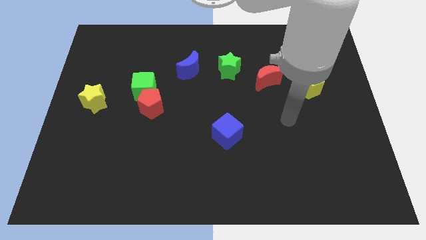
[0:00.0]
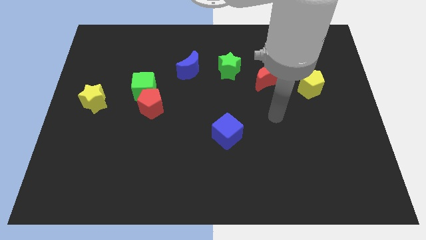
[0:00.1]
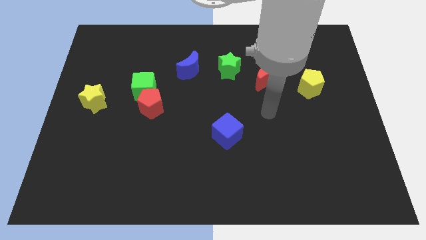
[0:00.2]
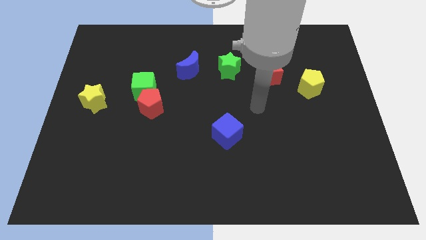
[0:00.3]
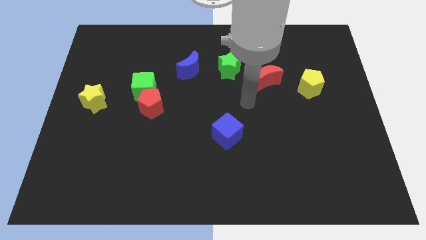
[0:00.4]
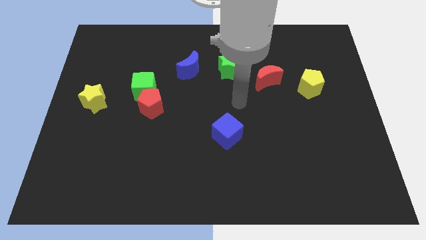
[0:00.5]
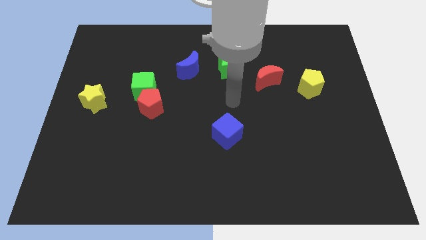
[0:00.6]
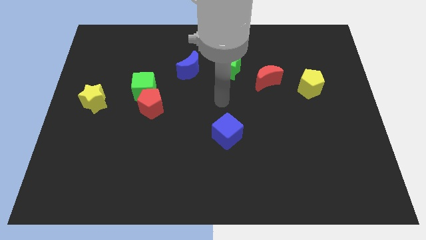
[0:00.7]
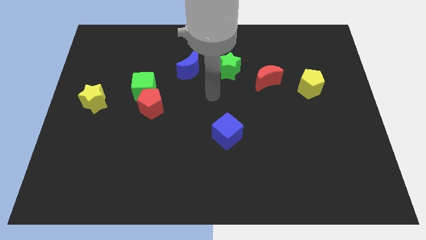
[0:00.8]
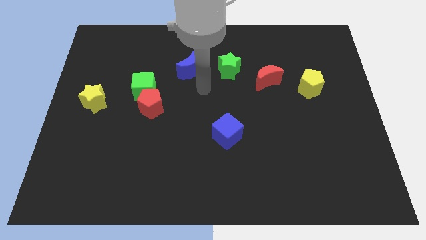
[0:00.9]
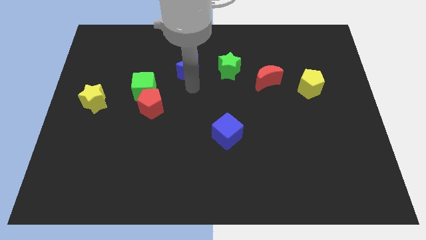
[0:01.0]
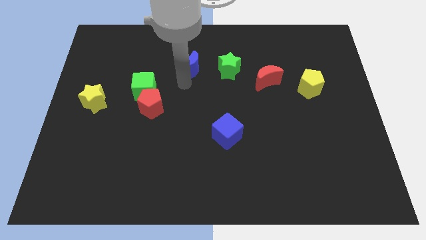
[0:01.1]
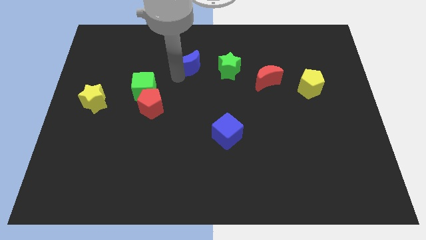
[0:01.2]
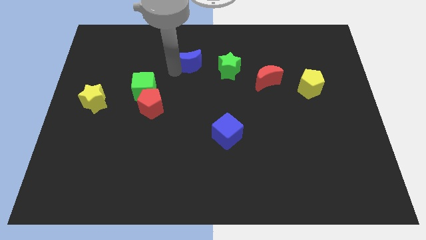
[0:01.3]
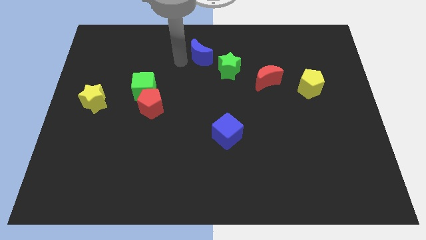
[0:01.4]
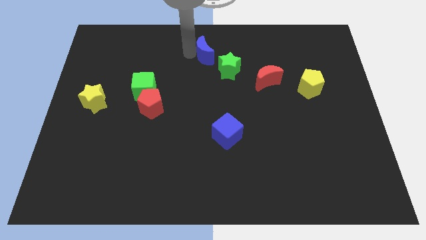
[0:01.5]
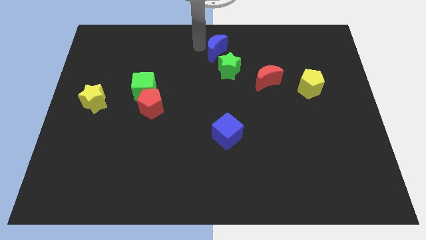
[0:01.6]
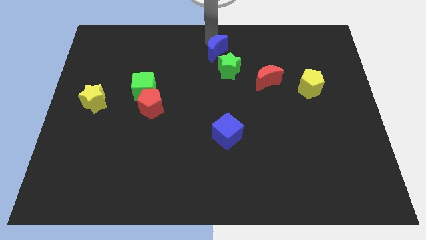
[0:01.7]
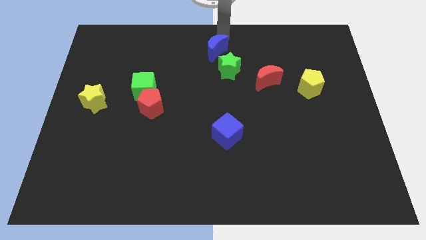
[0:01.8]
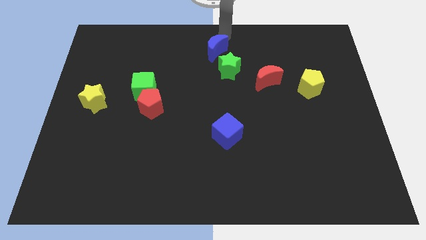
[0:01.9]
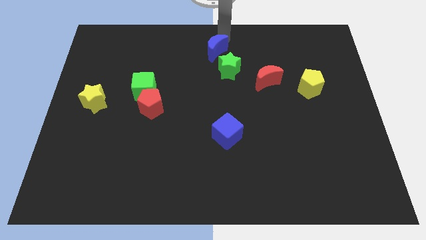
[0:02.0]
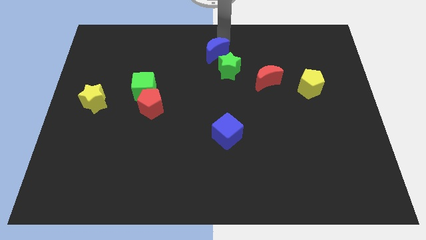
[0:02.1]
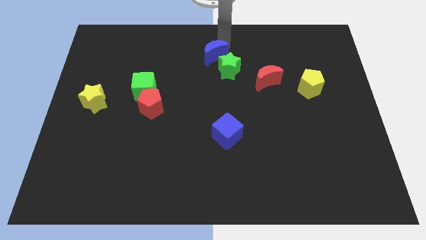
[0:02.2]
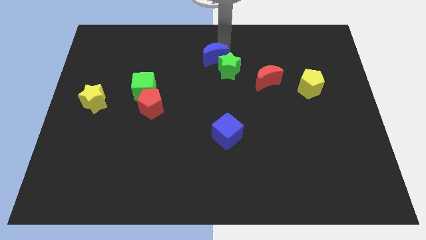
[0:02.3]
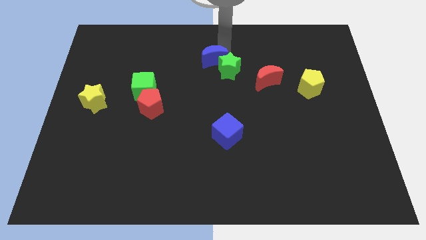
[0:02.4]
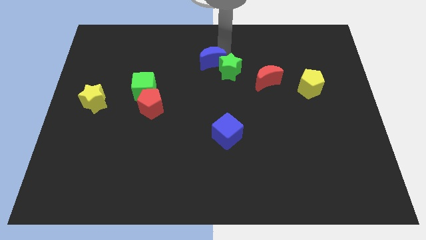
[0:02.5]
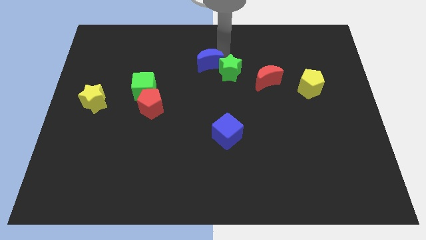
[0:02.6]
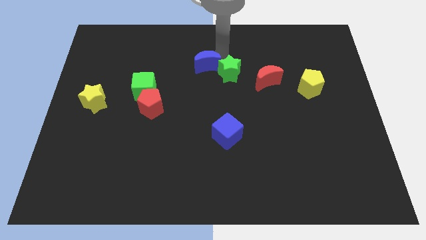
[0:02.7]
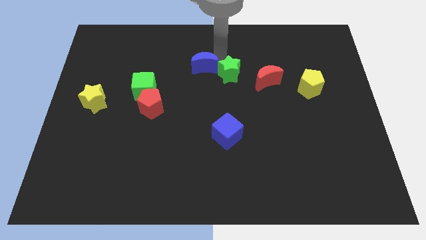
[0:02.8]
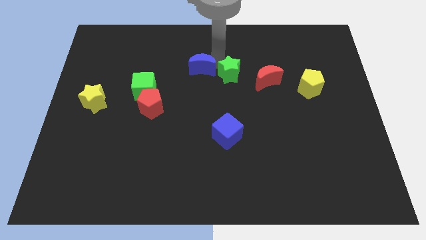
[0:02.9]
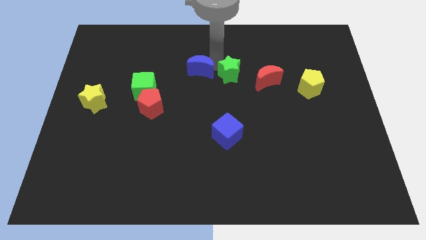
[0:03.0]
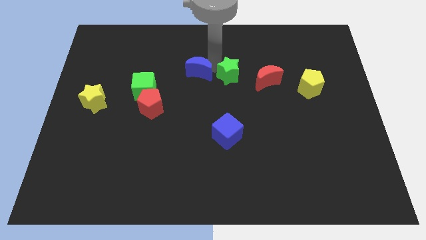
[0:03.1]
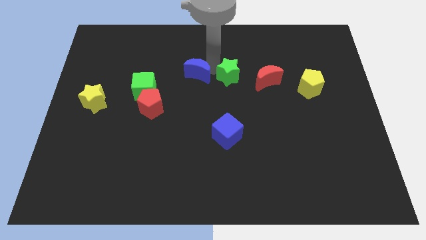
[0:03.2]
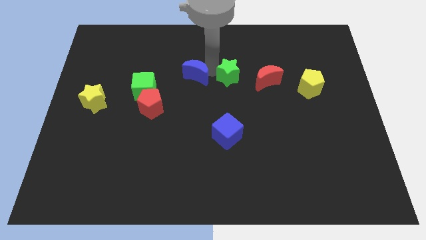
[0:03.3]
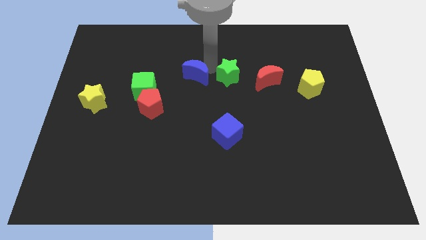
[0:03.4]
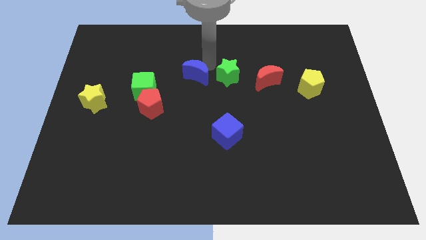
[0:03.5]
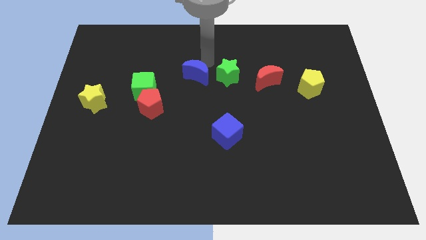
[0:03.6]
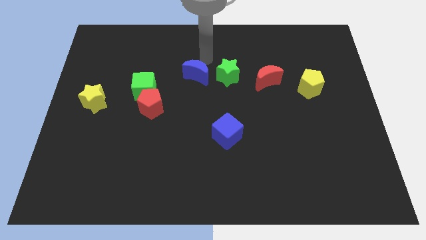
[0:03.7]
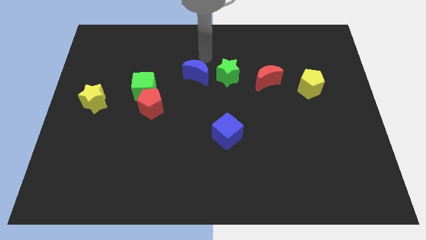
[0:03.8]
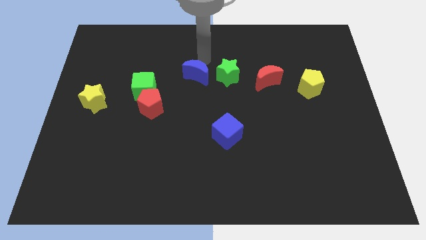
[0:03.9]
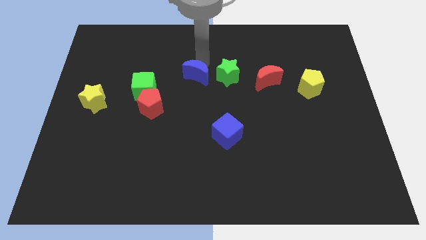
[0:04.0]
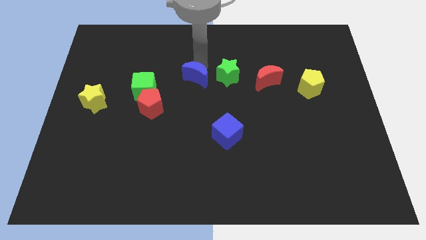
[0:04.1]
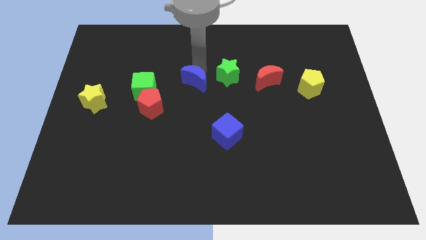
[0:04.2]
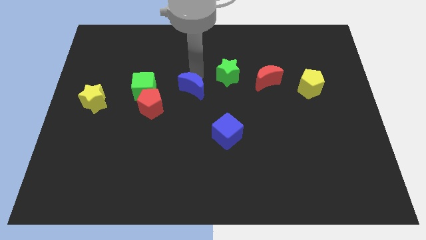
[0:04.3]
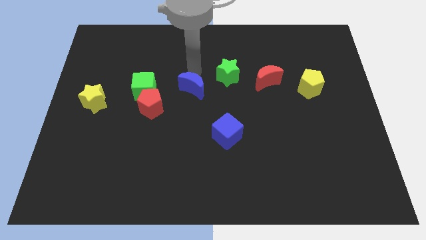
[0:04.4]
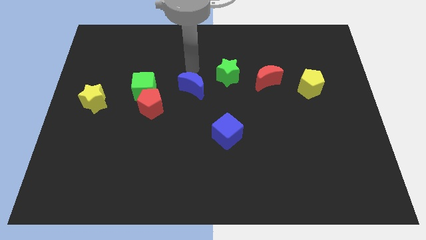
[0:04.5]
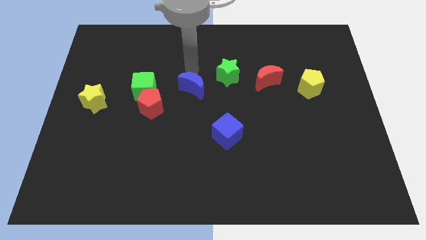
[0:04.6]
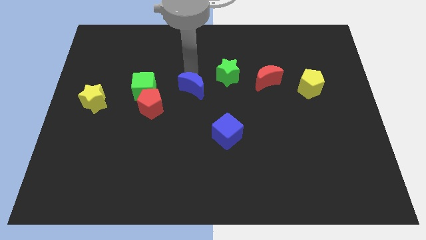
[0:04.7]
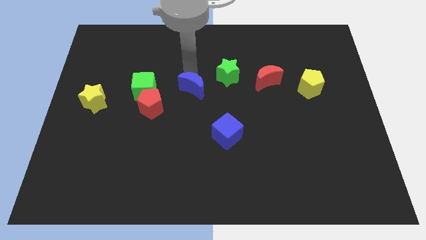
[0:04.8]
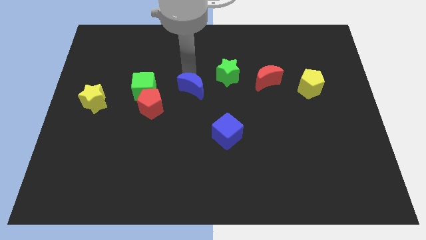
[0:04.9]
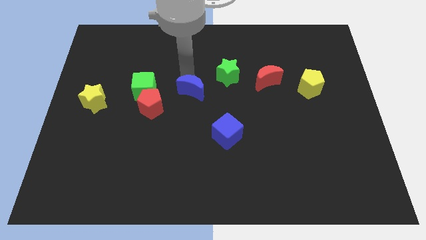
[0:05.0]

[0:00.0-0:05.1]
put the blue moon to the right side of the red pentagon

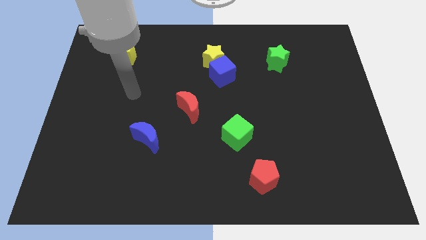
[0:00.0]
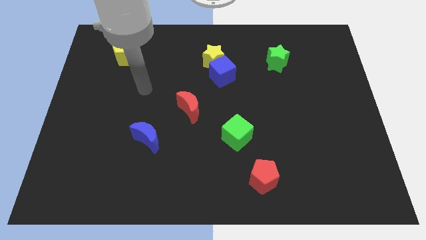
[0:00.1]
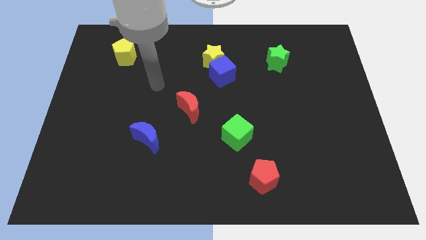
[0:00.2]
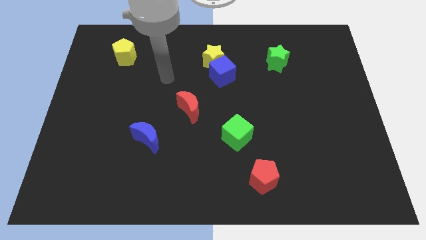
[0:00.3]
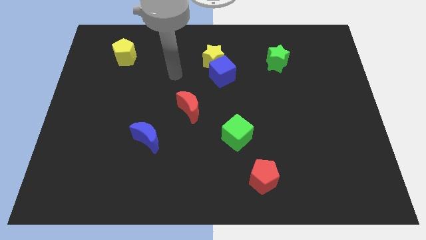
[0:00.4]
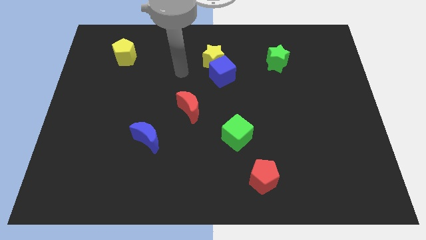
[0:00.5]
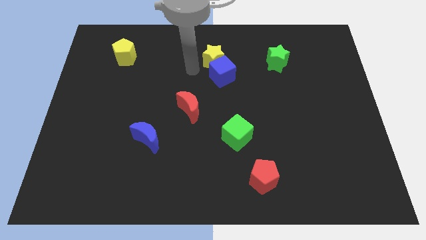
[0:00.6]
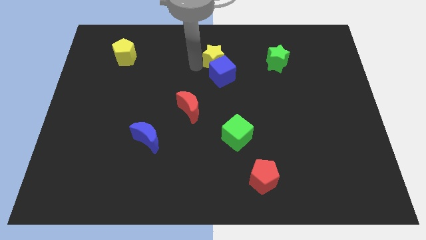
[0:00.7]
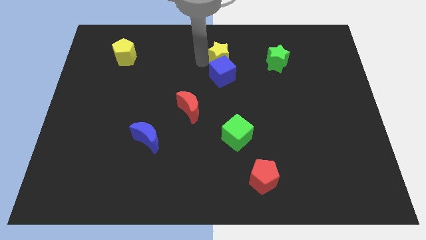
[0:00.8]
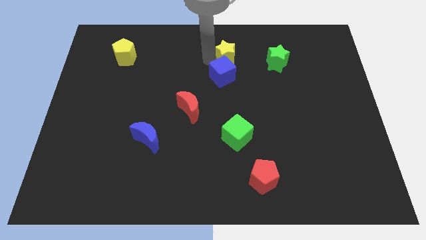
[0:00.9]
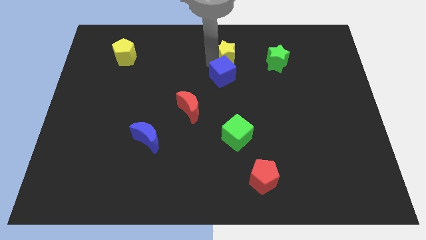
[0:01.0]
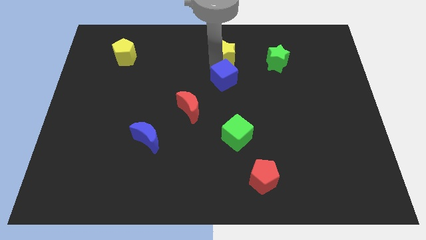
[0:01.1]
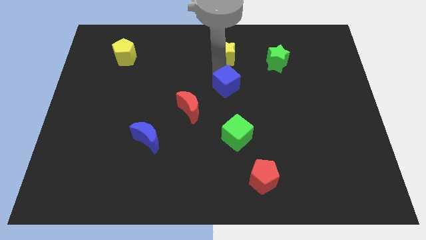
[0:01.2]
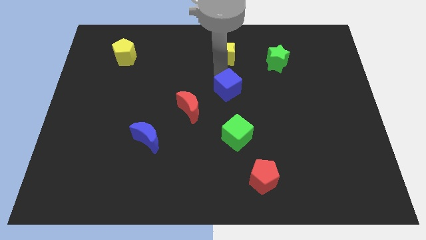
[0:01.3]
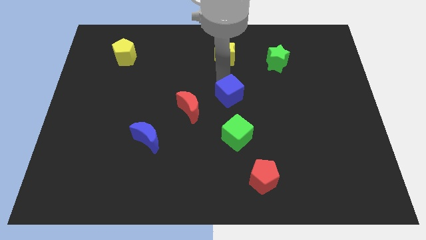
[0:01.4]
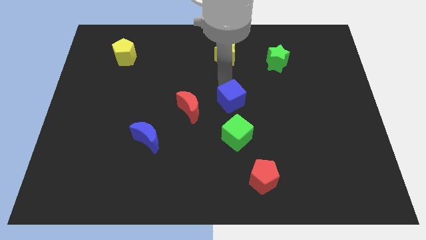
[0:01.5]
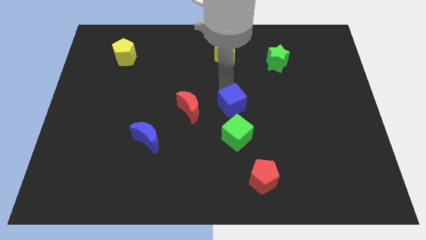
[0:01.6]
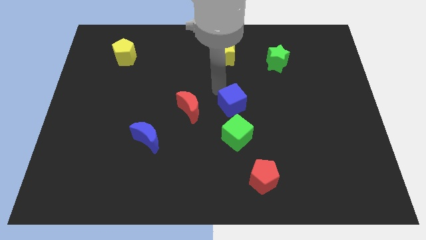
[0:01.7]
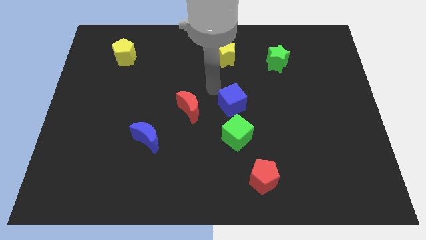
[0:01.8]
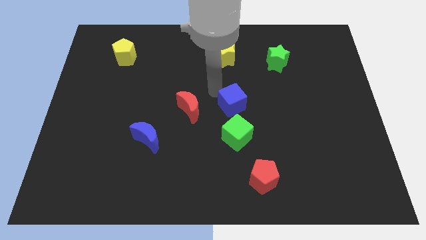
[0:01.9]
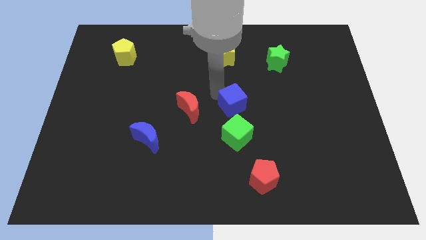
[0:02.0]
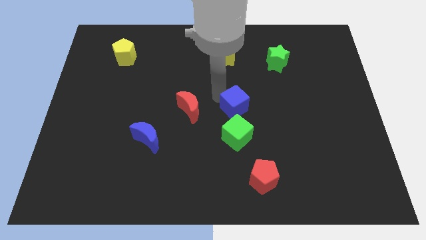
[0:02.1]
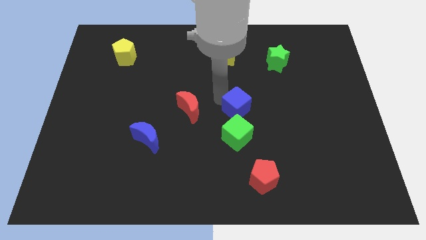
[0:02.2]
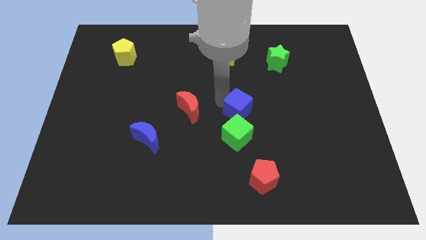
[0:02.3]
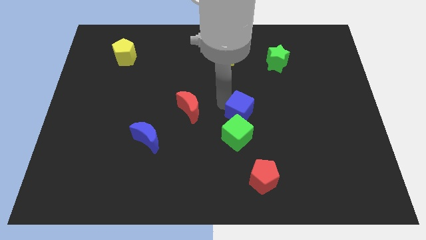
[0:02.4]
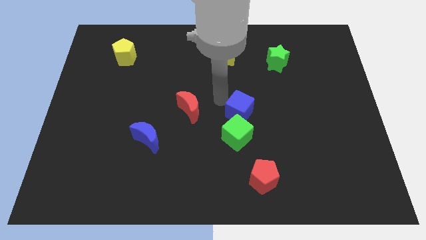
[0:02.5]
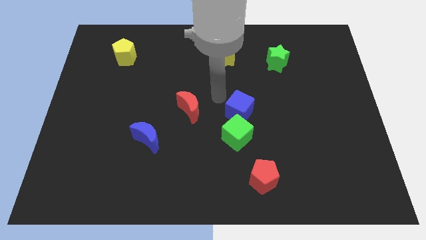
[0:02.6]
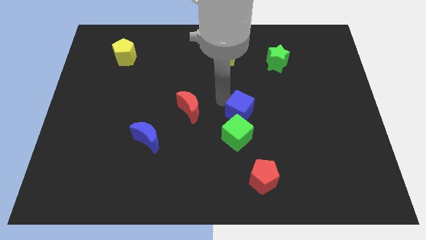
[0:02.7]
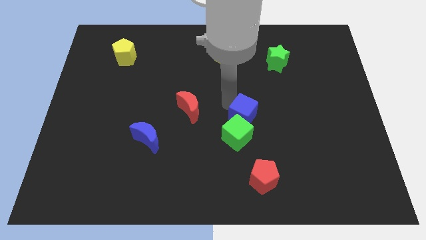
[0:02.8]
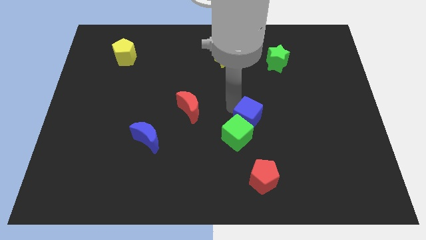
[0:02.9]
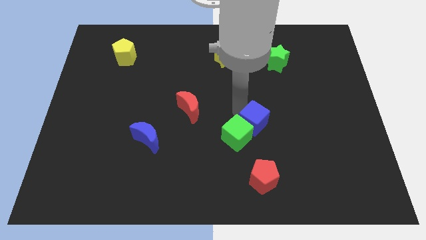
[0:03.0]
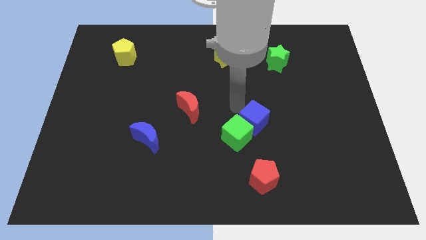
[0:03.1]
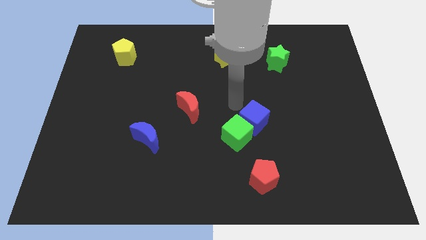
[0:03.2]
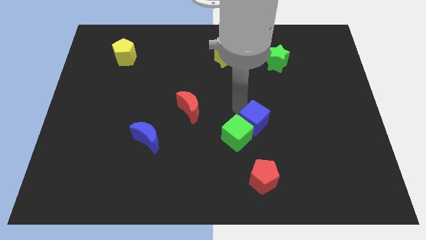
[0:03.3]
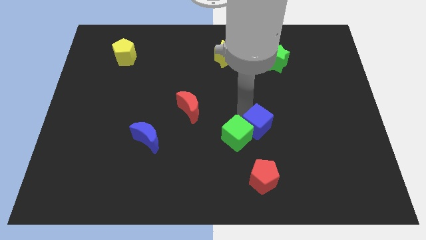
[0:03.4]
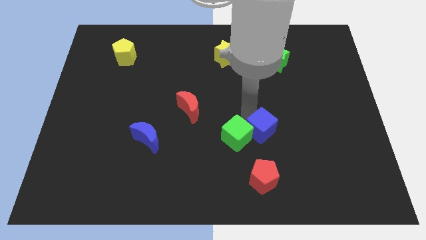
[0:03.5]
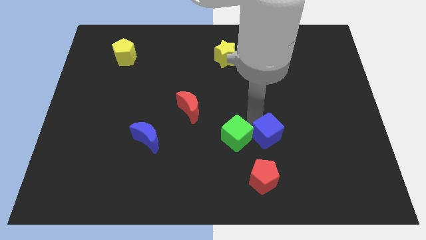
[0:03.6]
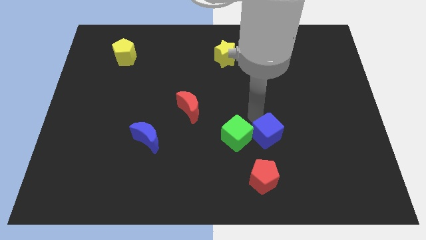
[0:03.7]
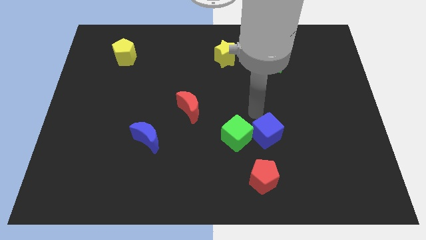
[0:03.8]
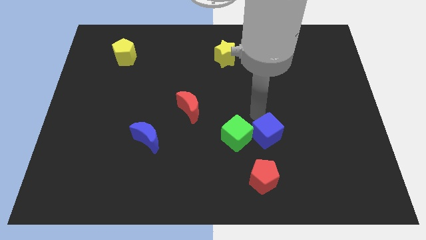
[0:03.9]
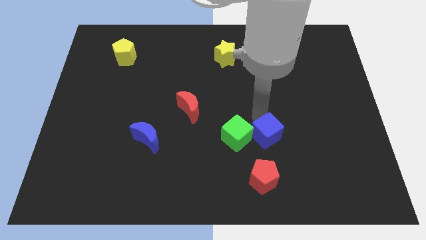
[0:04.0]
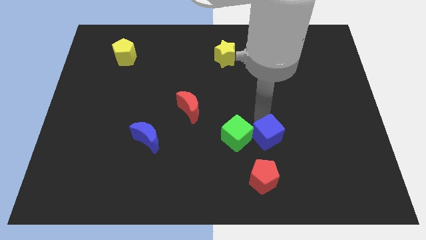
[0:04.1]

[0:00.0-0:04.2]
move the blue cube to the bottom right side of the green cube
